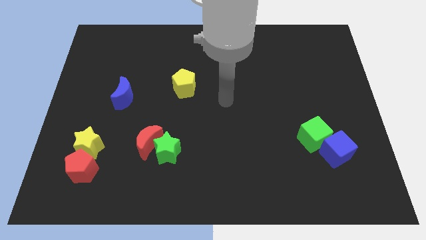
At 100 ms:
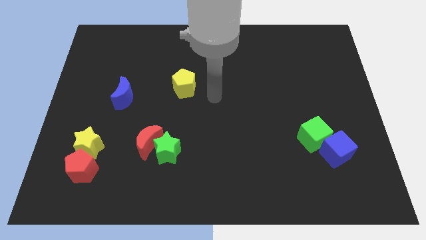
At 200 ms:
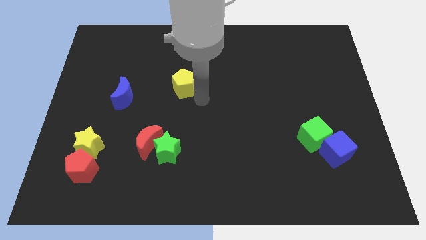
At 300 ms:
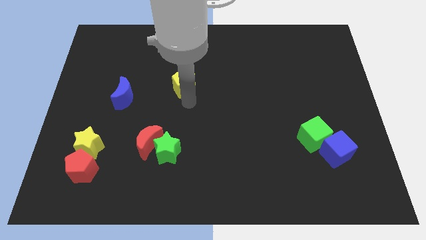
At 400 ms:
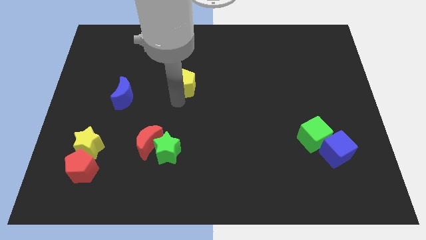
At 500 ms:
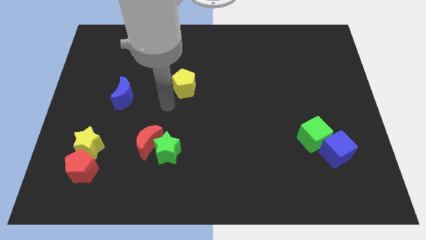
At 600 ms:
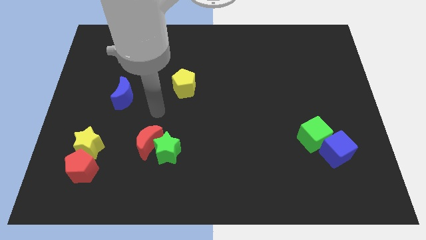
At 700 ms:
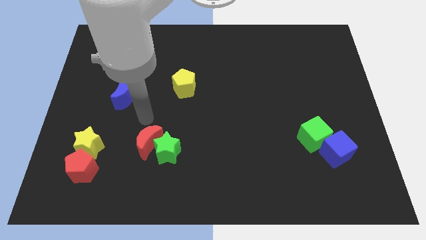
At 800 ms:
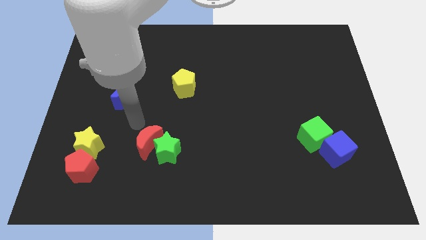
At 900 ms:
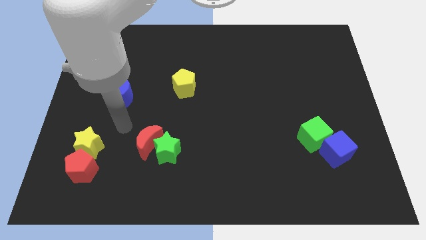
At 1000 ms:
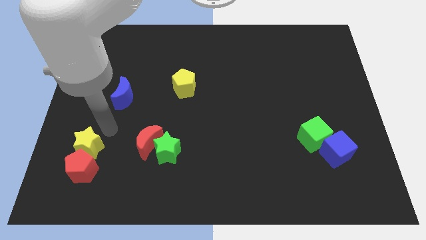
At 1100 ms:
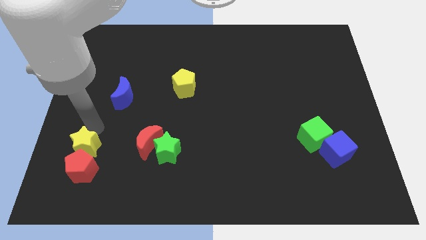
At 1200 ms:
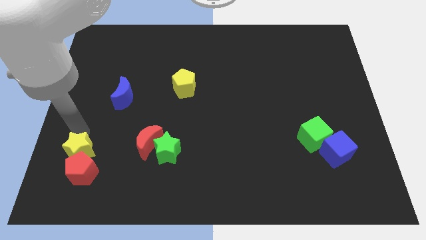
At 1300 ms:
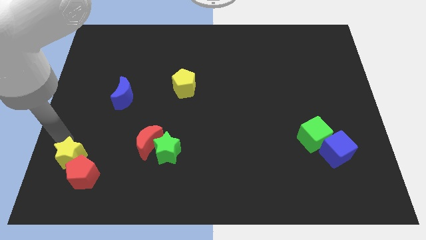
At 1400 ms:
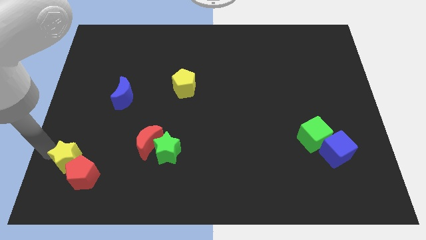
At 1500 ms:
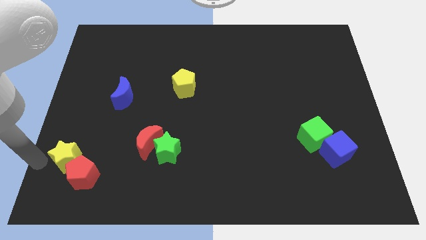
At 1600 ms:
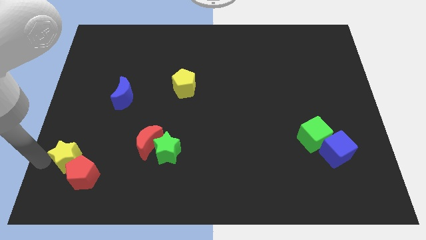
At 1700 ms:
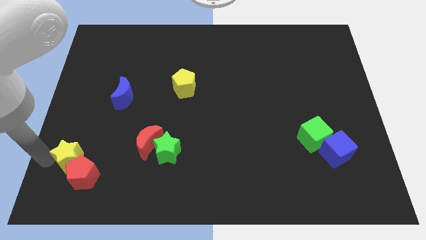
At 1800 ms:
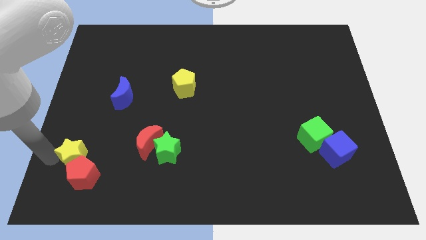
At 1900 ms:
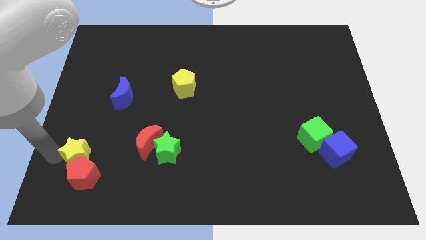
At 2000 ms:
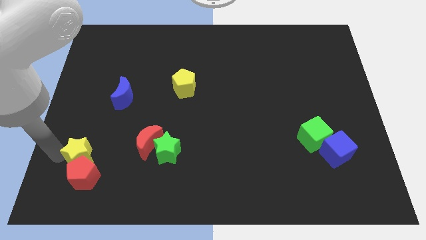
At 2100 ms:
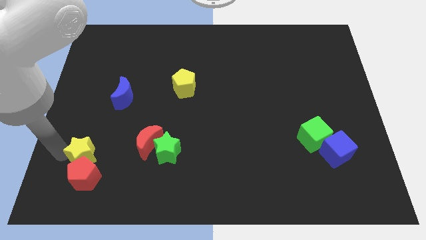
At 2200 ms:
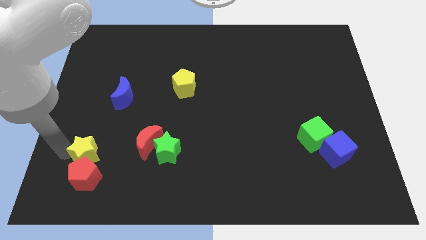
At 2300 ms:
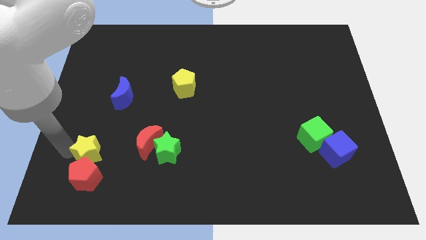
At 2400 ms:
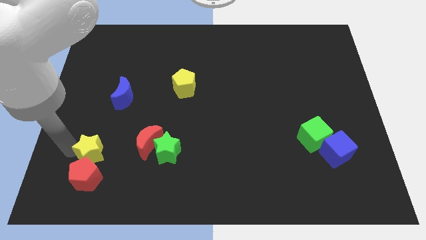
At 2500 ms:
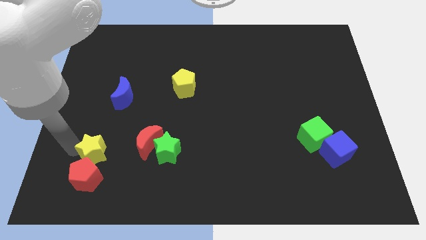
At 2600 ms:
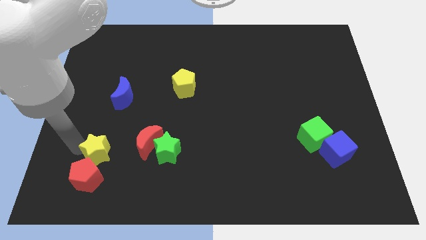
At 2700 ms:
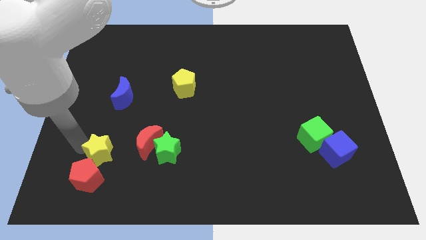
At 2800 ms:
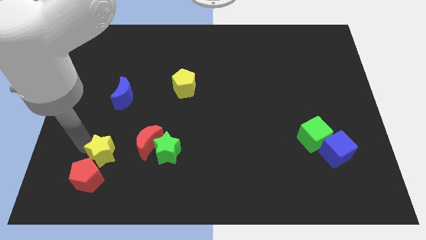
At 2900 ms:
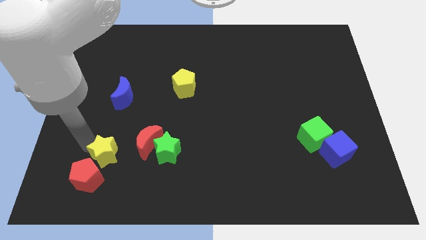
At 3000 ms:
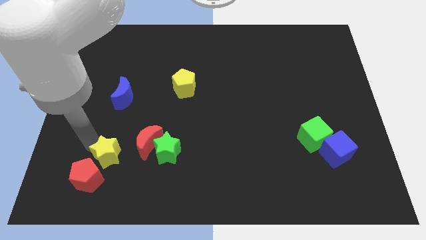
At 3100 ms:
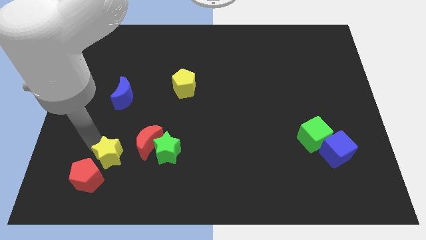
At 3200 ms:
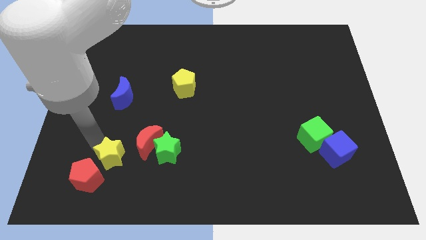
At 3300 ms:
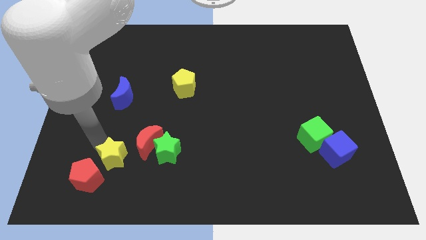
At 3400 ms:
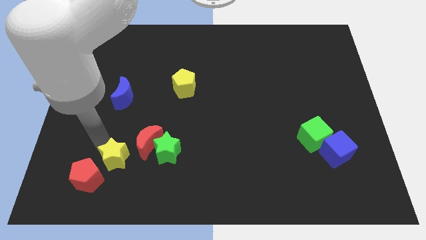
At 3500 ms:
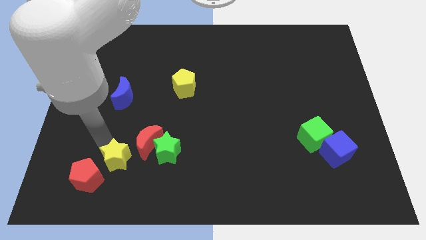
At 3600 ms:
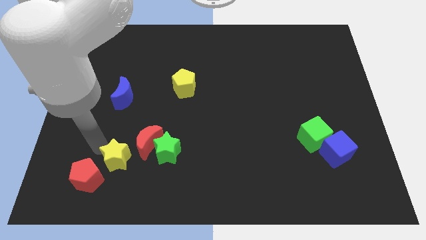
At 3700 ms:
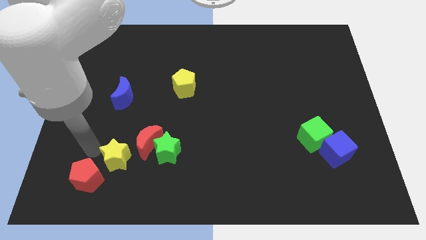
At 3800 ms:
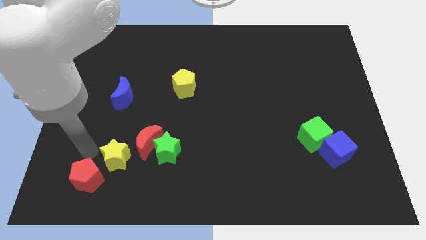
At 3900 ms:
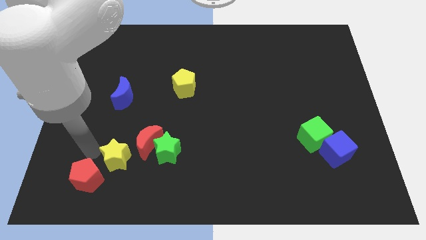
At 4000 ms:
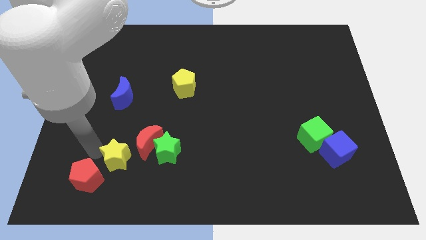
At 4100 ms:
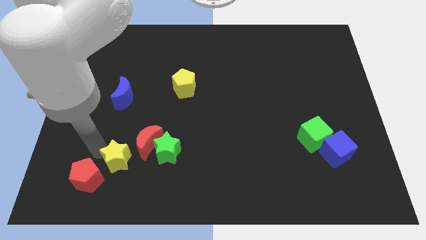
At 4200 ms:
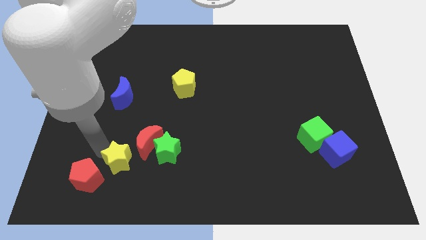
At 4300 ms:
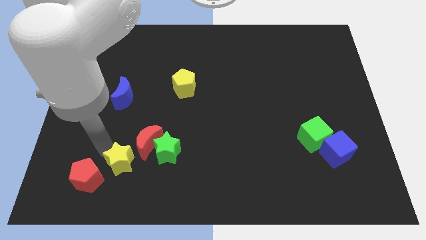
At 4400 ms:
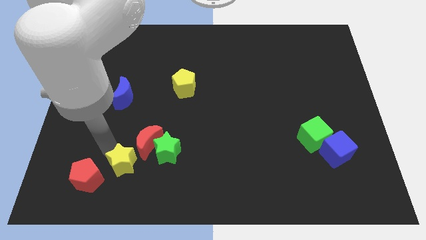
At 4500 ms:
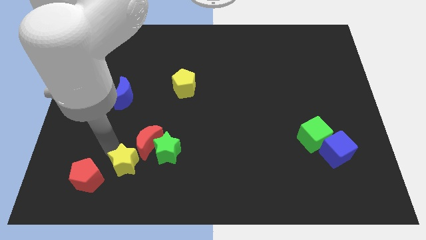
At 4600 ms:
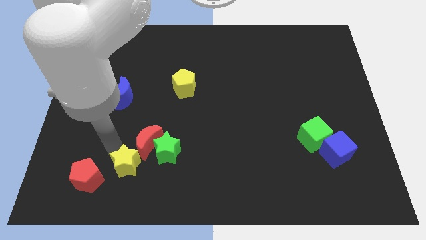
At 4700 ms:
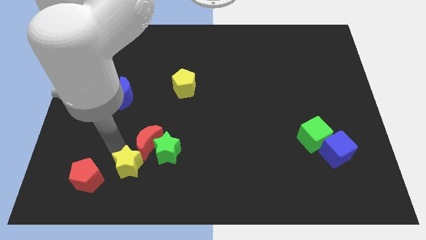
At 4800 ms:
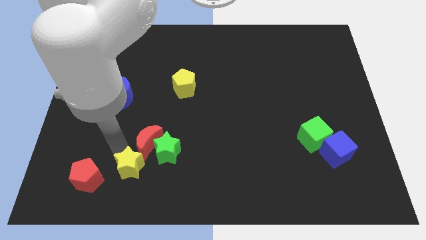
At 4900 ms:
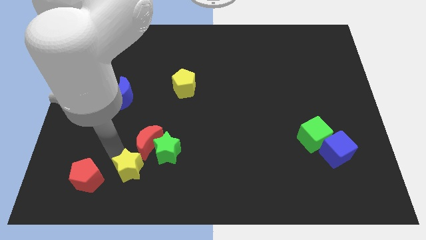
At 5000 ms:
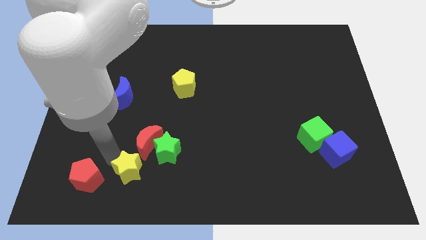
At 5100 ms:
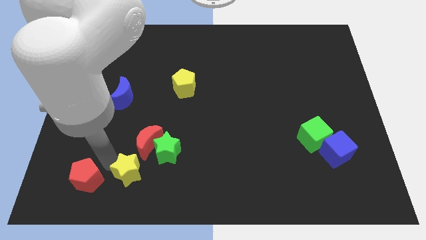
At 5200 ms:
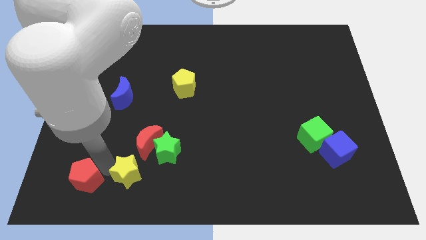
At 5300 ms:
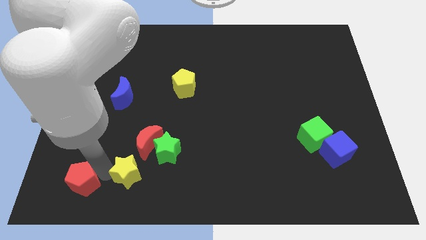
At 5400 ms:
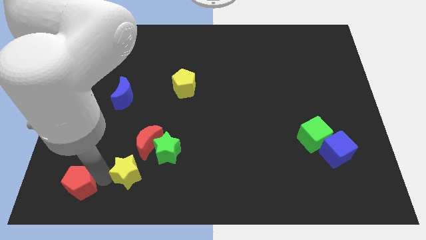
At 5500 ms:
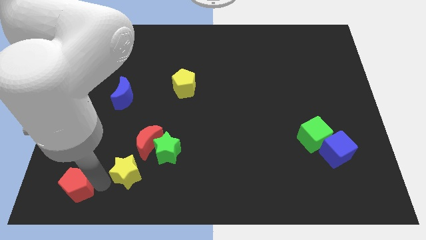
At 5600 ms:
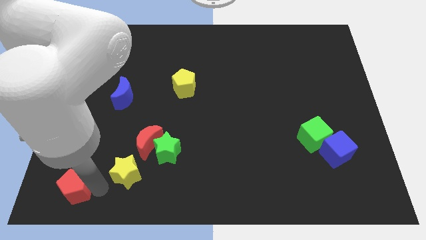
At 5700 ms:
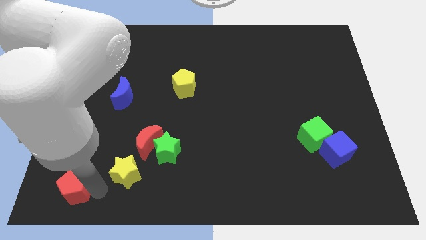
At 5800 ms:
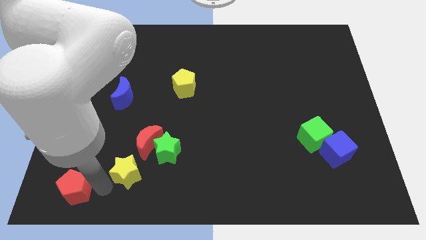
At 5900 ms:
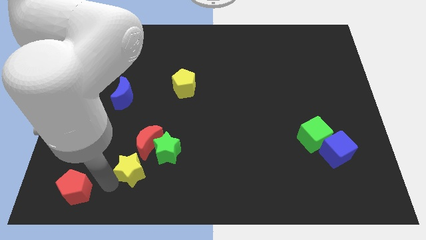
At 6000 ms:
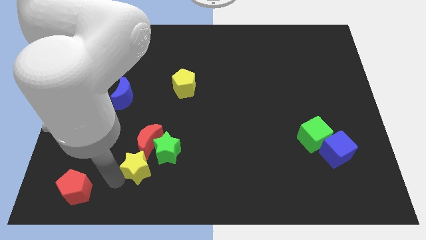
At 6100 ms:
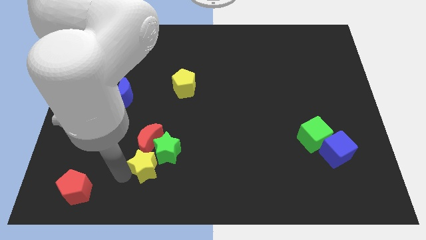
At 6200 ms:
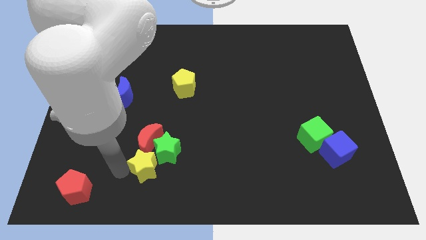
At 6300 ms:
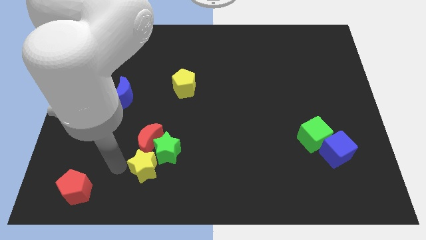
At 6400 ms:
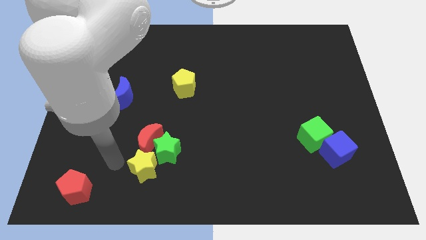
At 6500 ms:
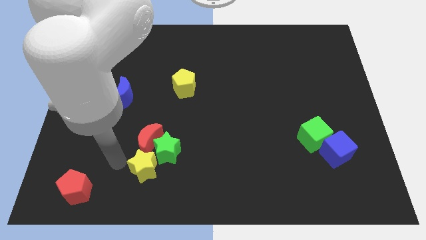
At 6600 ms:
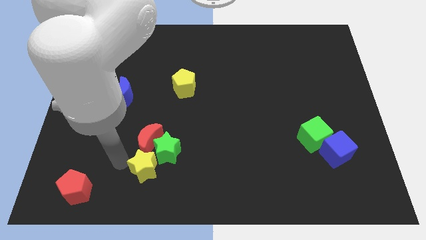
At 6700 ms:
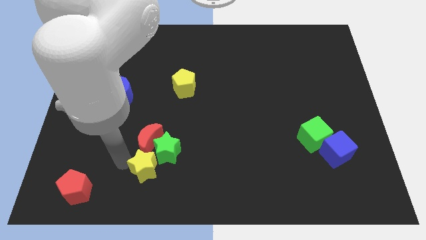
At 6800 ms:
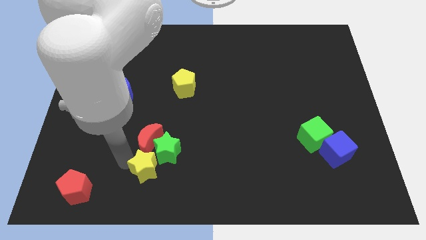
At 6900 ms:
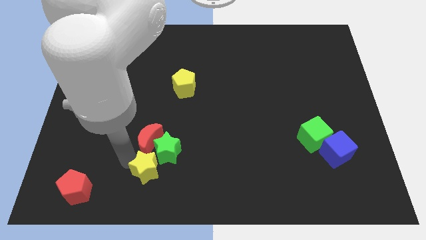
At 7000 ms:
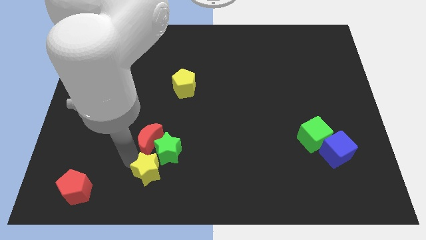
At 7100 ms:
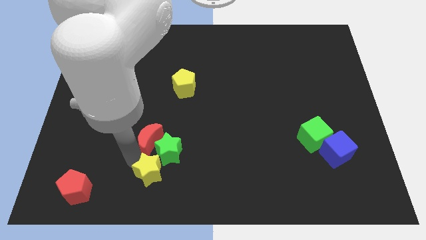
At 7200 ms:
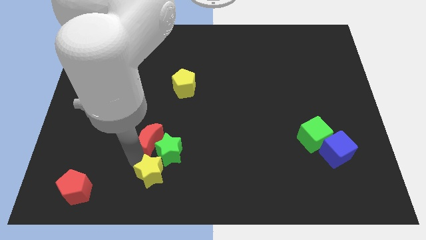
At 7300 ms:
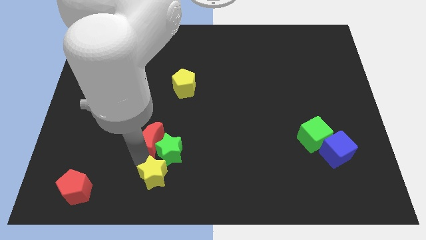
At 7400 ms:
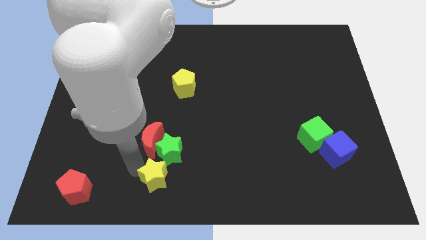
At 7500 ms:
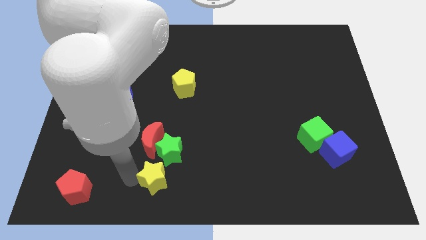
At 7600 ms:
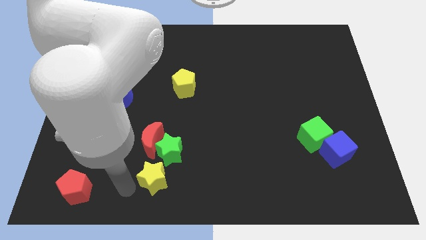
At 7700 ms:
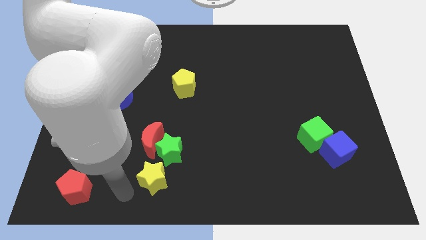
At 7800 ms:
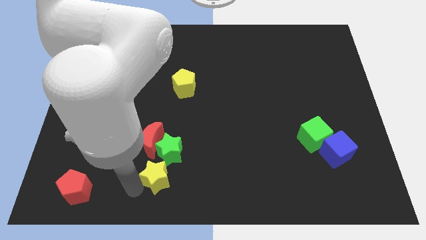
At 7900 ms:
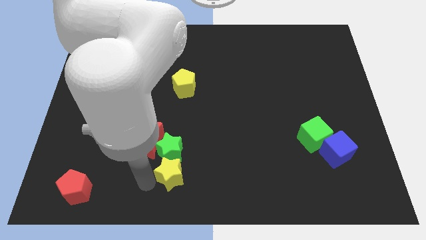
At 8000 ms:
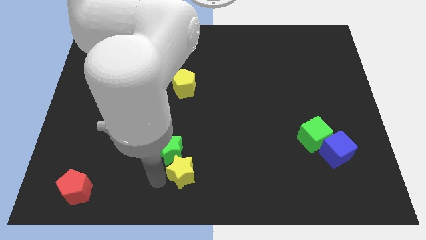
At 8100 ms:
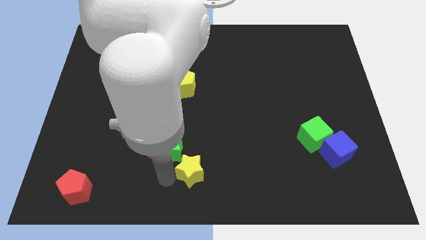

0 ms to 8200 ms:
push the yellow star to the right
